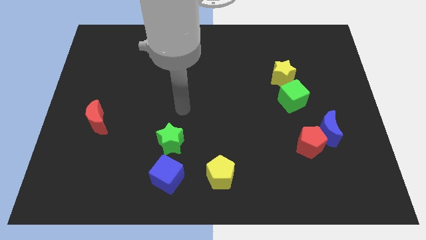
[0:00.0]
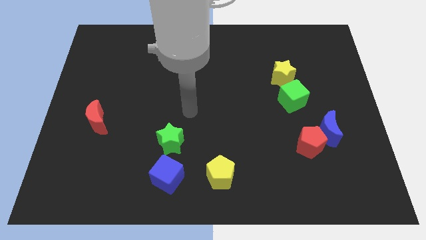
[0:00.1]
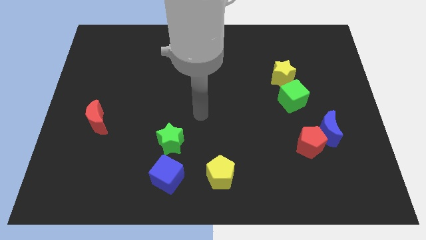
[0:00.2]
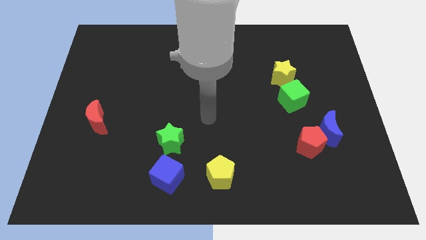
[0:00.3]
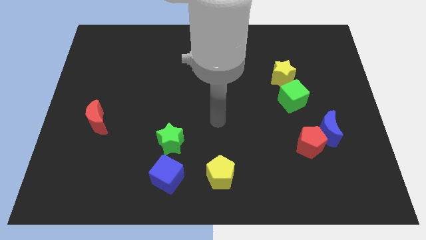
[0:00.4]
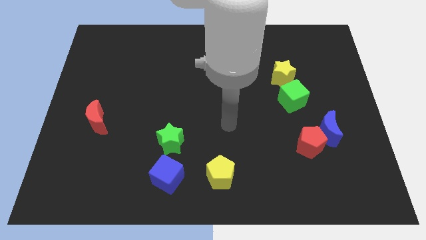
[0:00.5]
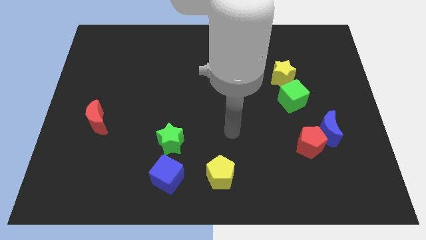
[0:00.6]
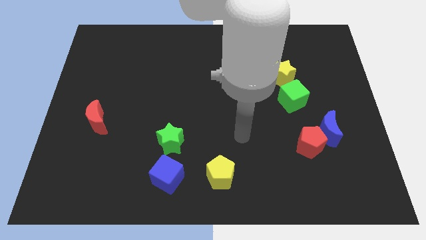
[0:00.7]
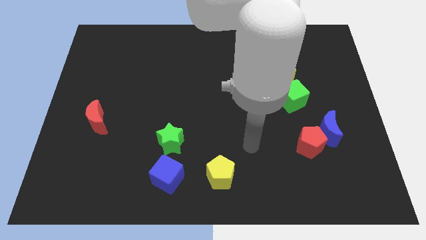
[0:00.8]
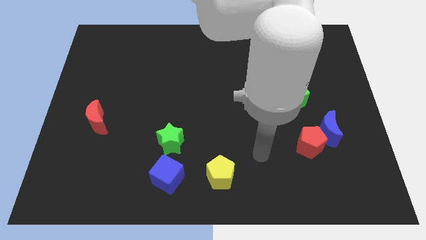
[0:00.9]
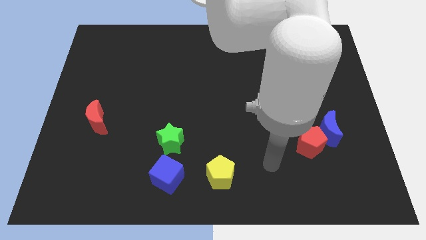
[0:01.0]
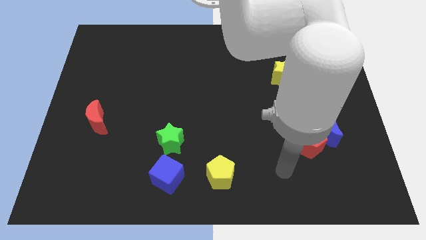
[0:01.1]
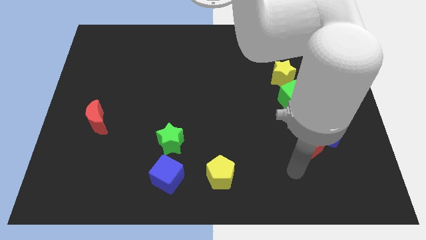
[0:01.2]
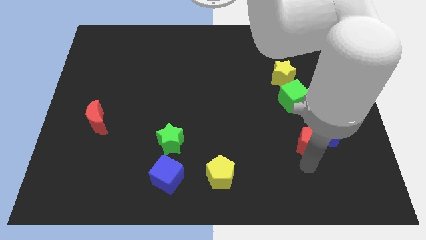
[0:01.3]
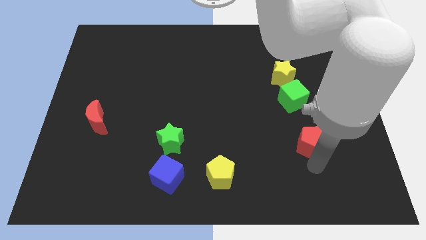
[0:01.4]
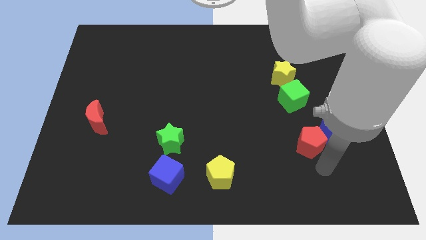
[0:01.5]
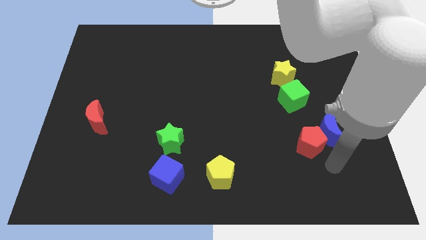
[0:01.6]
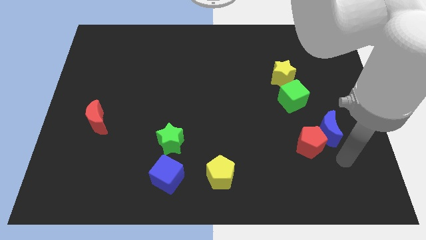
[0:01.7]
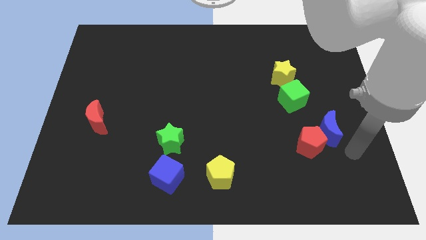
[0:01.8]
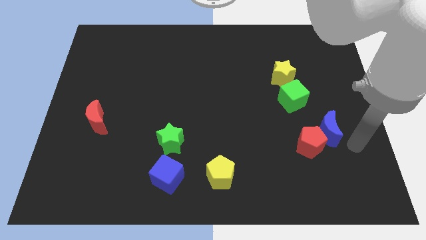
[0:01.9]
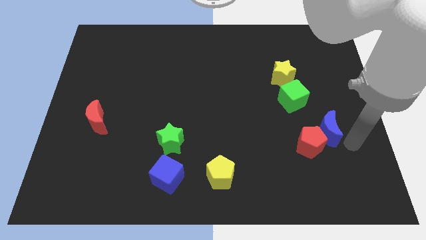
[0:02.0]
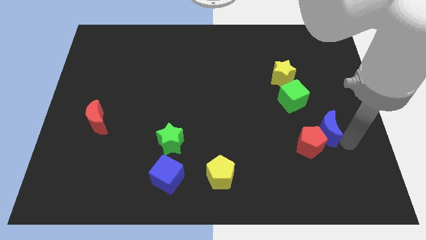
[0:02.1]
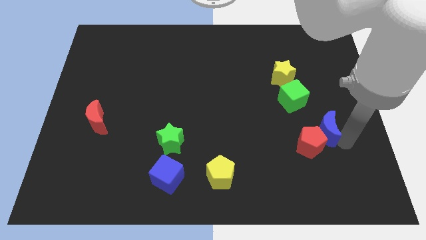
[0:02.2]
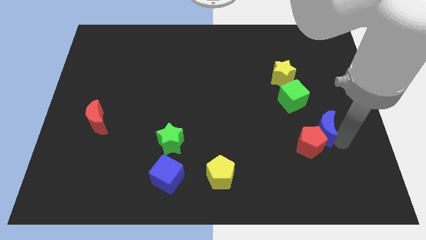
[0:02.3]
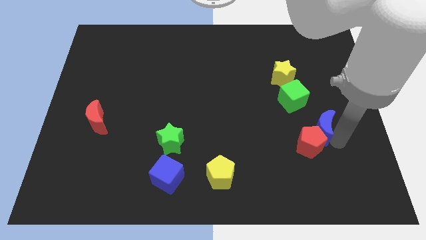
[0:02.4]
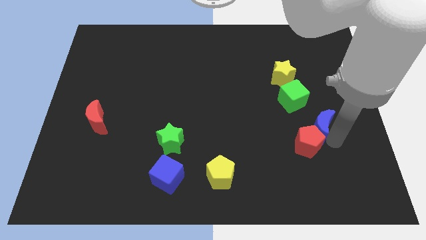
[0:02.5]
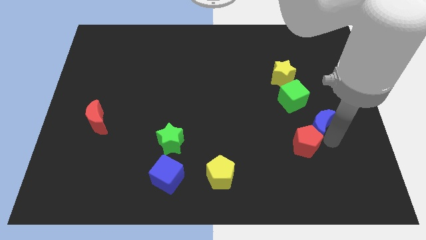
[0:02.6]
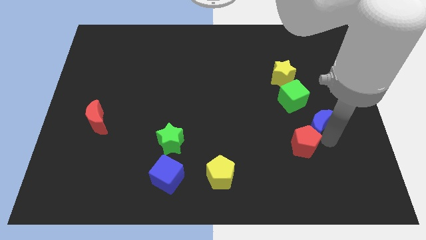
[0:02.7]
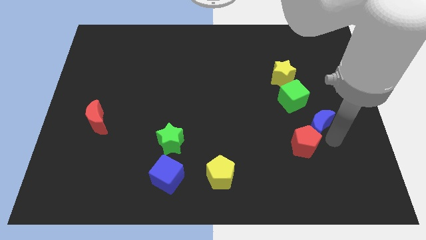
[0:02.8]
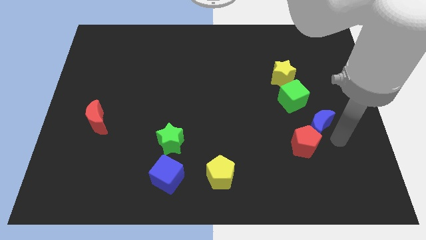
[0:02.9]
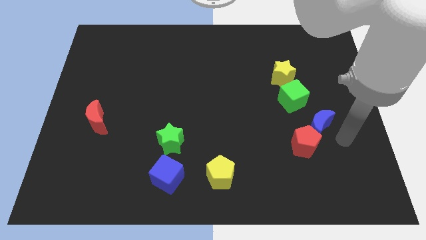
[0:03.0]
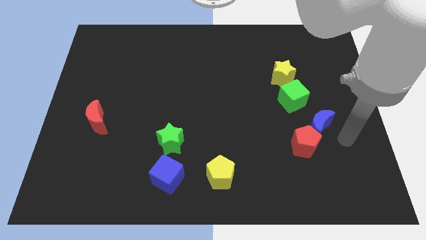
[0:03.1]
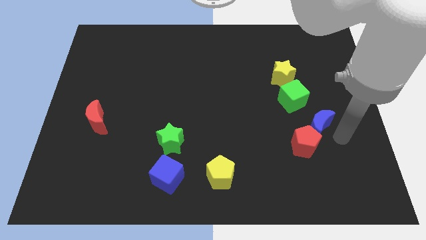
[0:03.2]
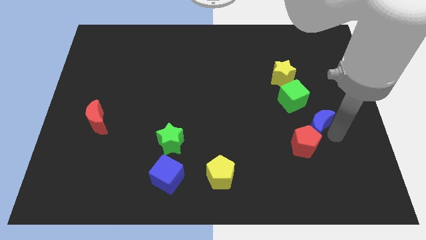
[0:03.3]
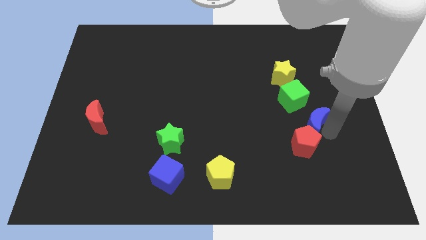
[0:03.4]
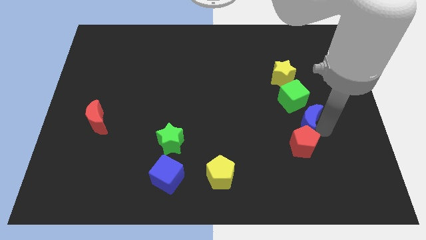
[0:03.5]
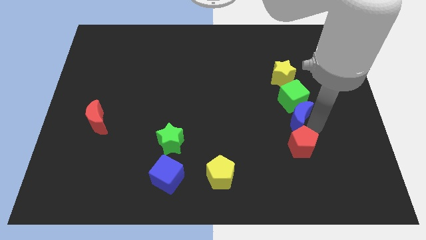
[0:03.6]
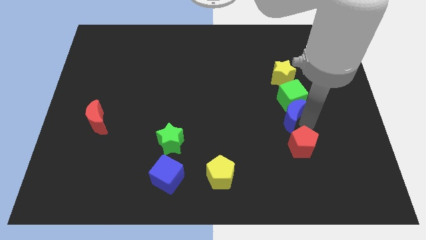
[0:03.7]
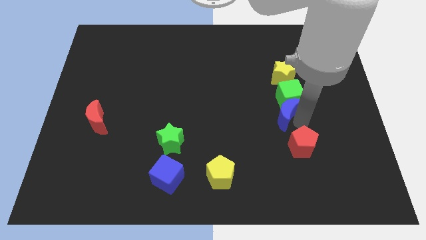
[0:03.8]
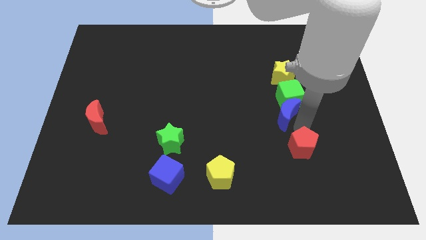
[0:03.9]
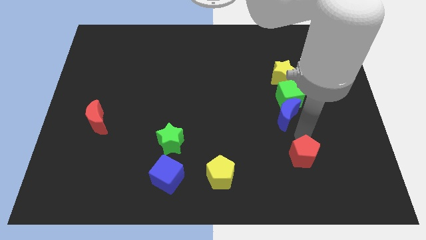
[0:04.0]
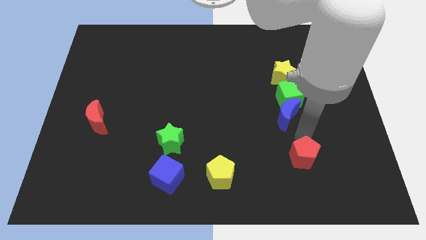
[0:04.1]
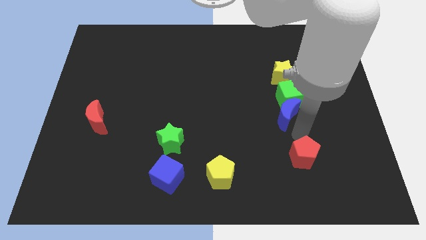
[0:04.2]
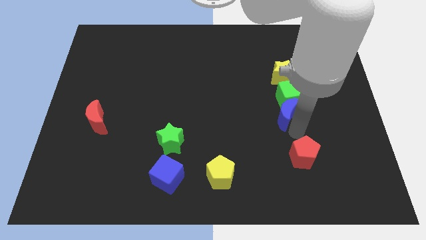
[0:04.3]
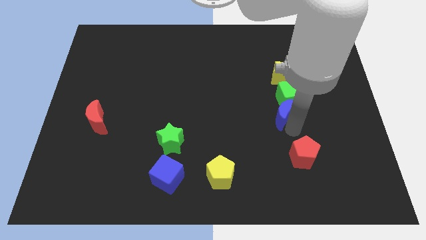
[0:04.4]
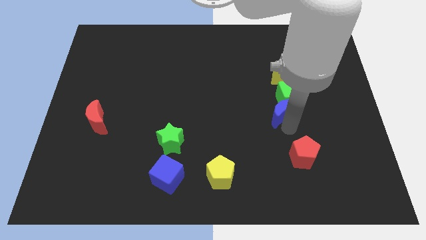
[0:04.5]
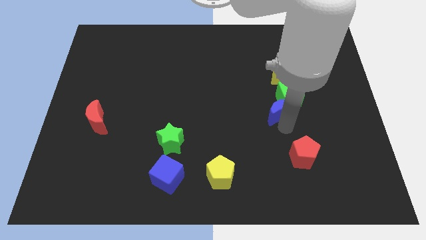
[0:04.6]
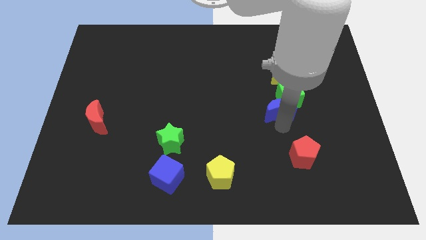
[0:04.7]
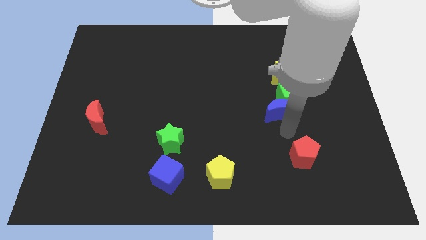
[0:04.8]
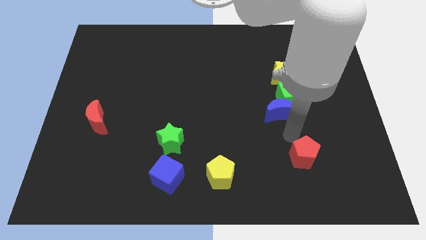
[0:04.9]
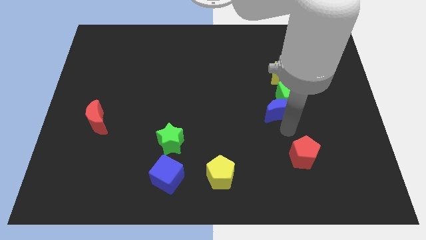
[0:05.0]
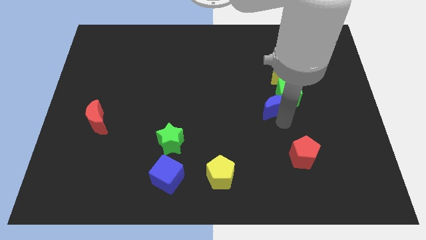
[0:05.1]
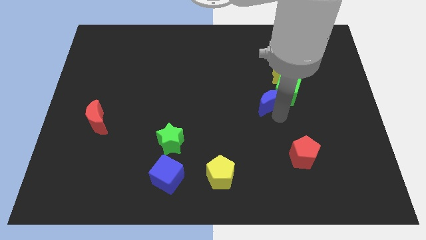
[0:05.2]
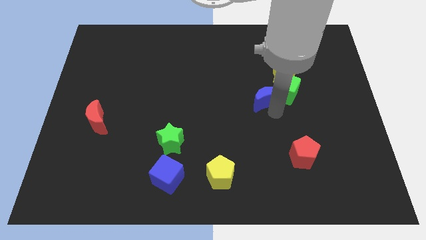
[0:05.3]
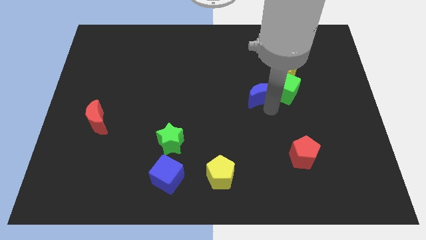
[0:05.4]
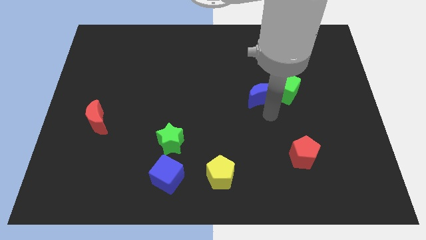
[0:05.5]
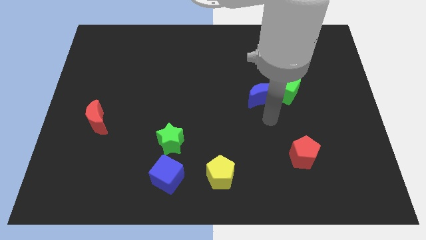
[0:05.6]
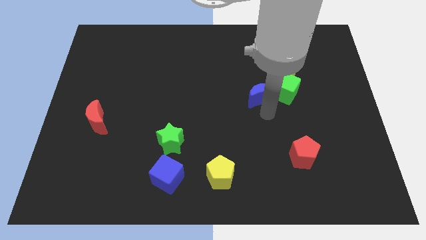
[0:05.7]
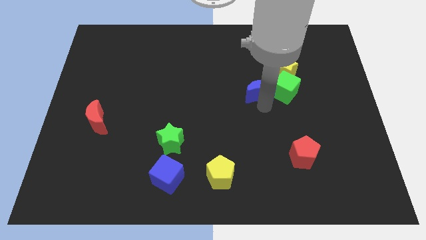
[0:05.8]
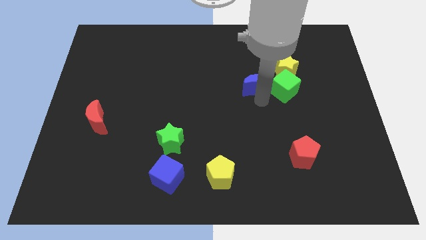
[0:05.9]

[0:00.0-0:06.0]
move the blue moon diagonally upwards and to the left

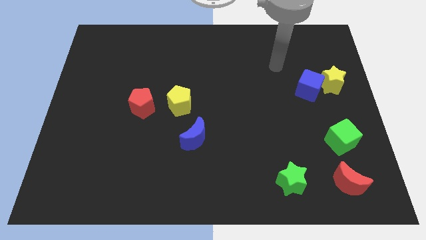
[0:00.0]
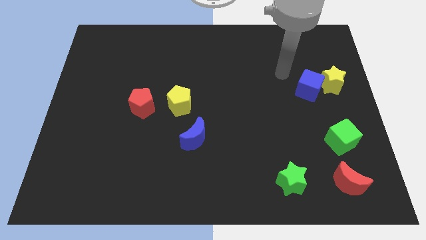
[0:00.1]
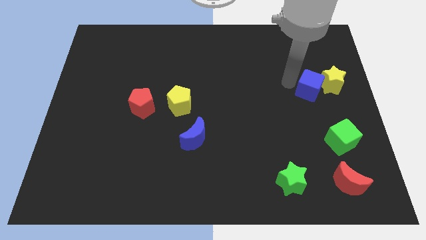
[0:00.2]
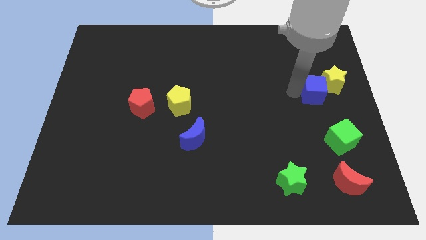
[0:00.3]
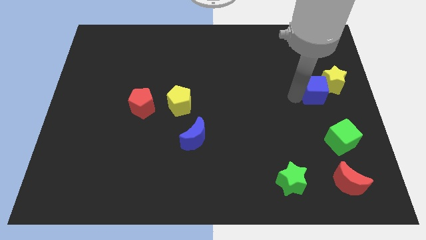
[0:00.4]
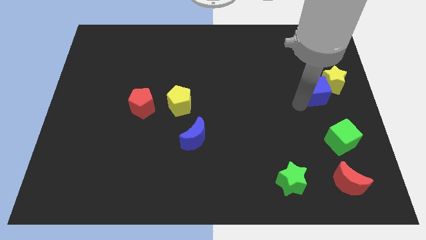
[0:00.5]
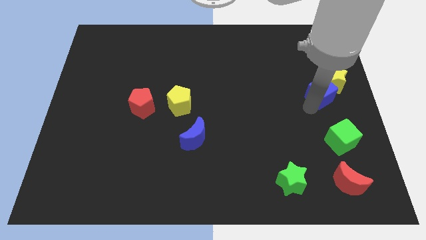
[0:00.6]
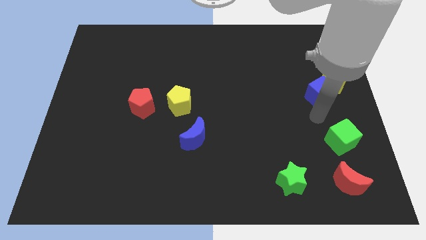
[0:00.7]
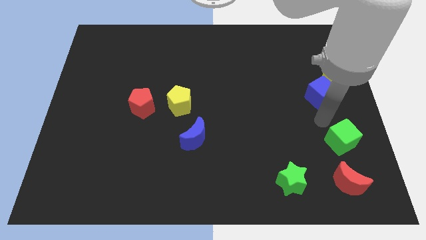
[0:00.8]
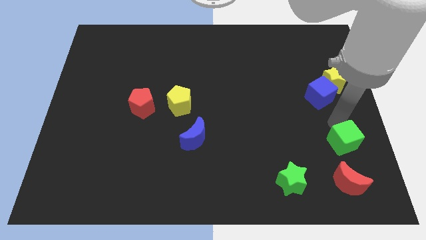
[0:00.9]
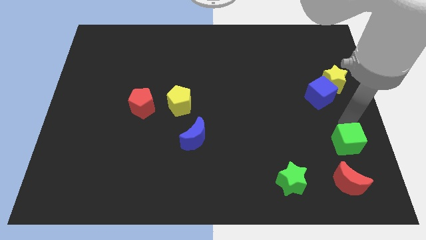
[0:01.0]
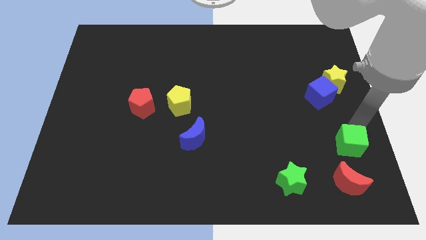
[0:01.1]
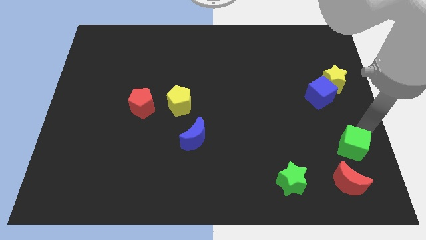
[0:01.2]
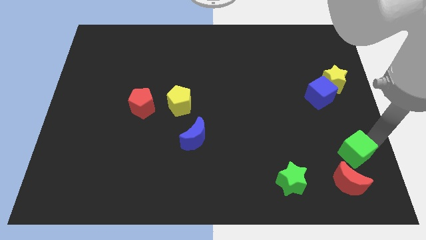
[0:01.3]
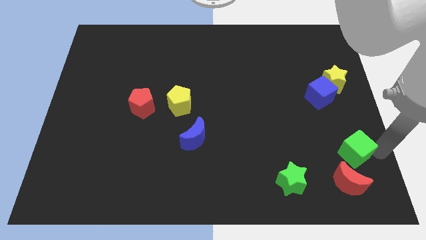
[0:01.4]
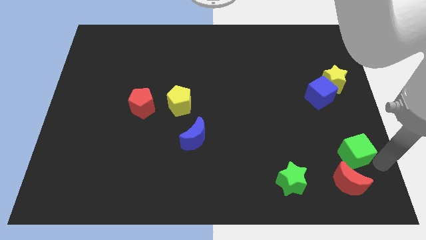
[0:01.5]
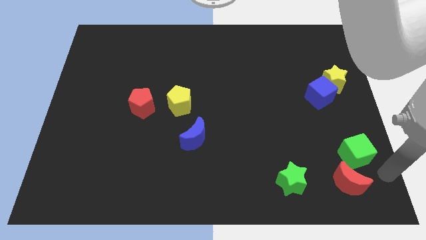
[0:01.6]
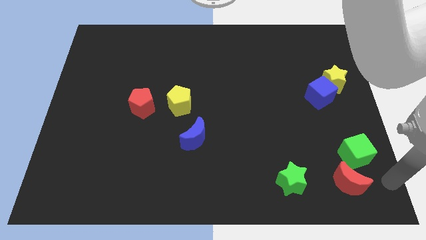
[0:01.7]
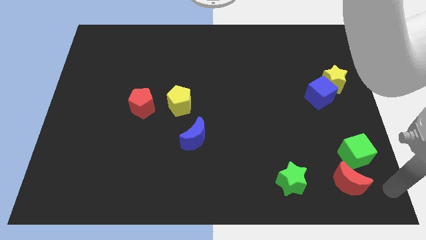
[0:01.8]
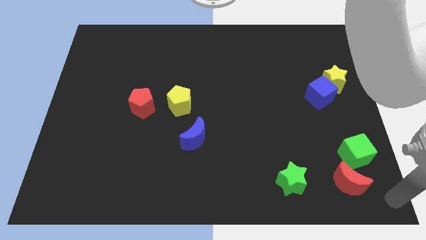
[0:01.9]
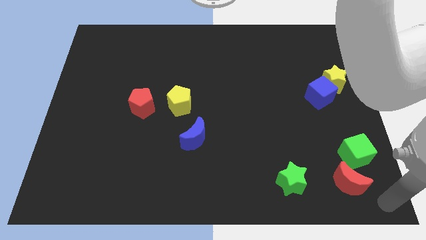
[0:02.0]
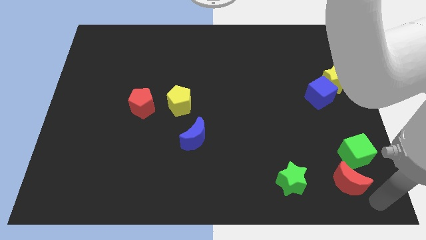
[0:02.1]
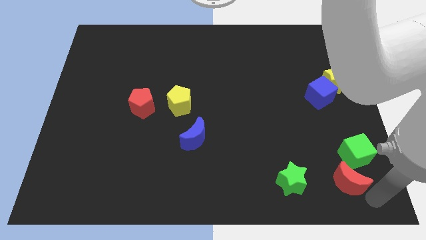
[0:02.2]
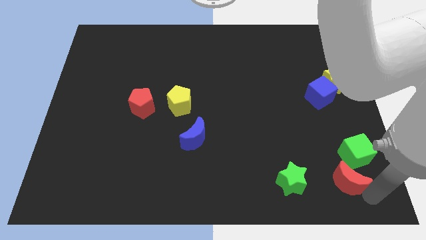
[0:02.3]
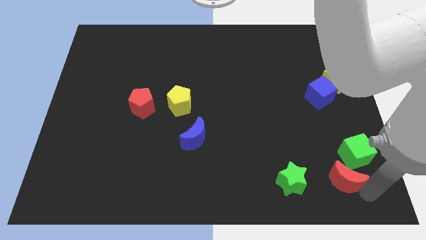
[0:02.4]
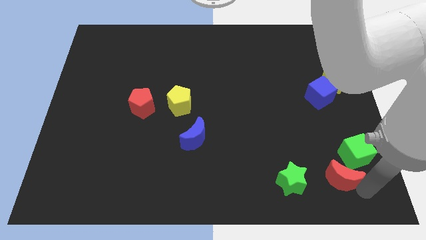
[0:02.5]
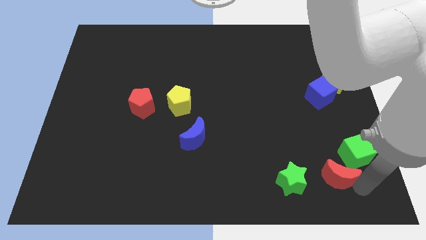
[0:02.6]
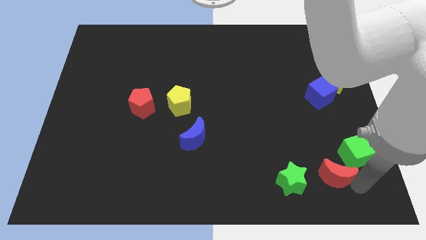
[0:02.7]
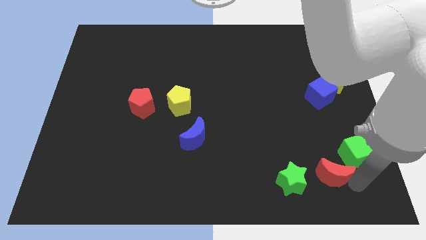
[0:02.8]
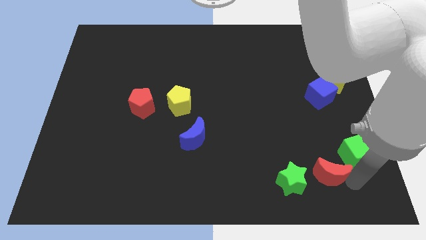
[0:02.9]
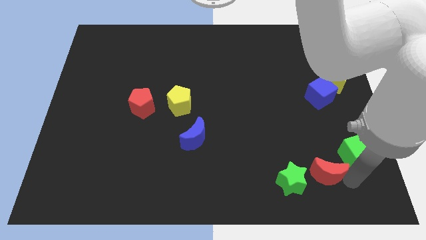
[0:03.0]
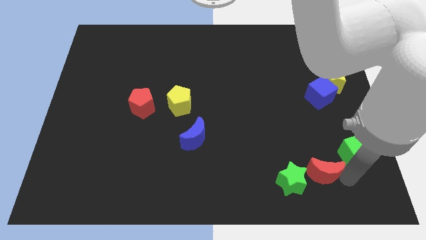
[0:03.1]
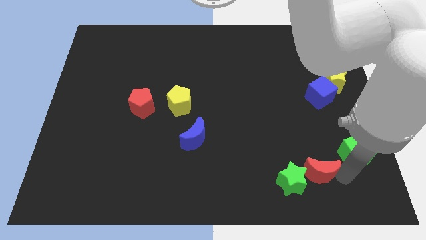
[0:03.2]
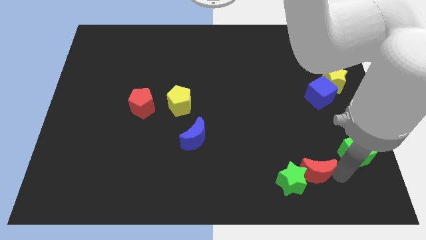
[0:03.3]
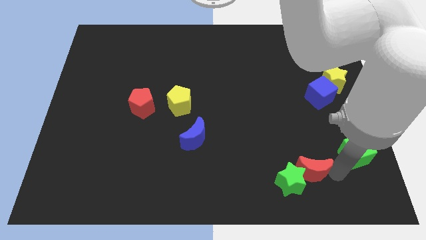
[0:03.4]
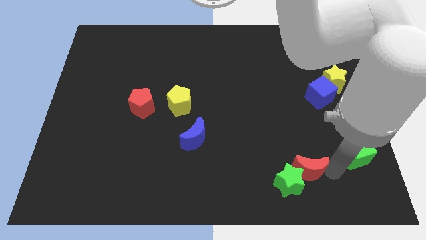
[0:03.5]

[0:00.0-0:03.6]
slightly move the red moon diagonally upwards and left
